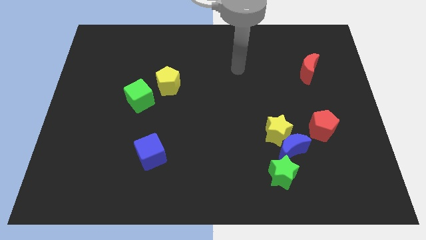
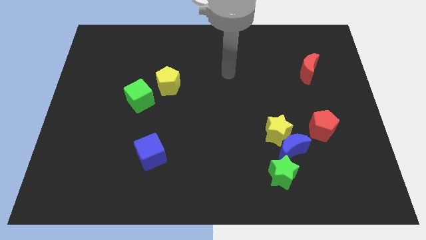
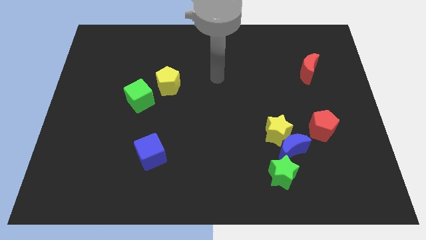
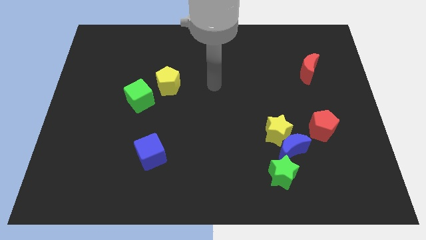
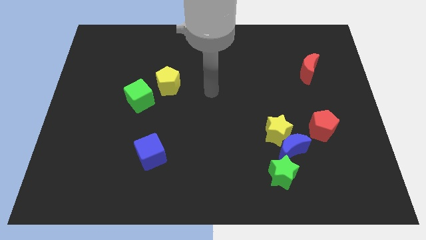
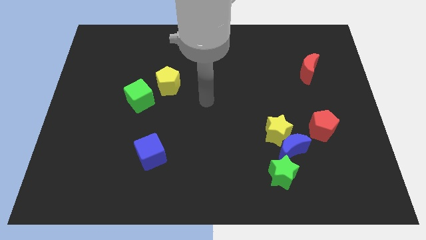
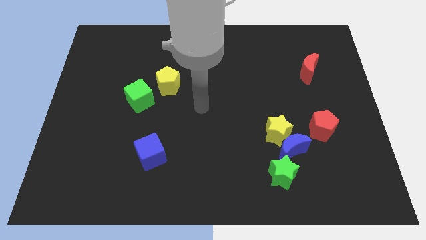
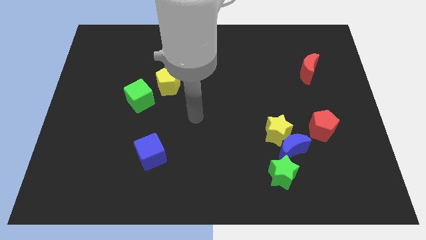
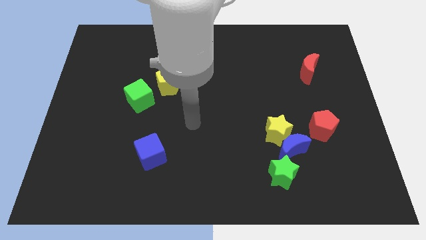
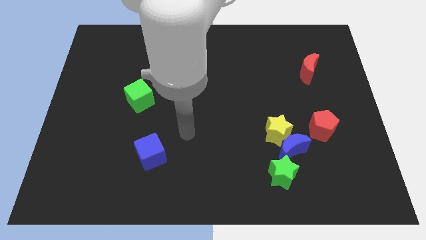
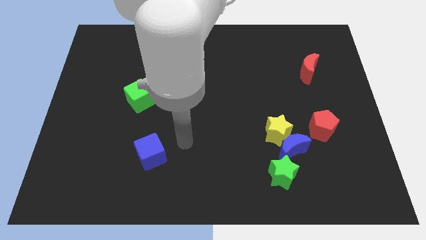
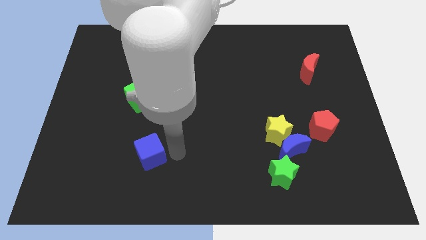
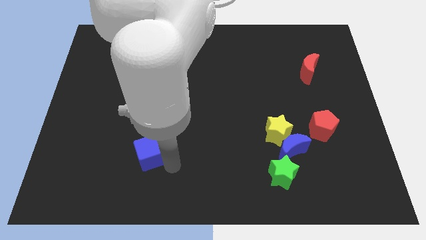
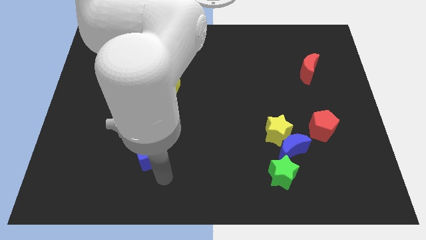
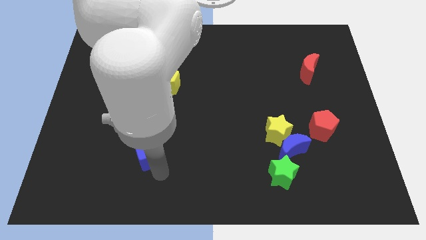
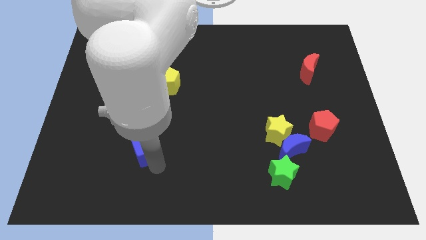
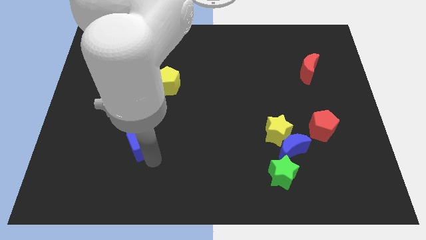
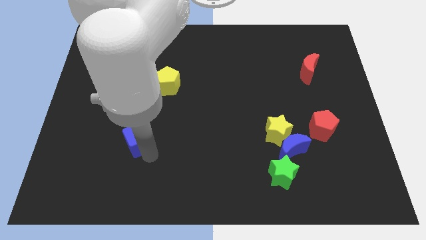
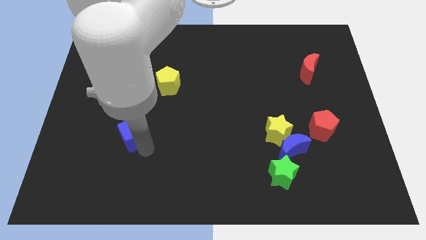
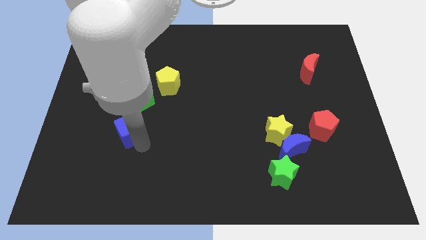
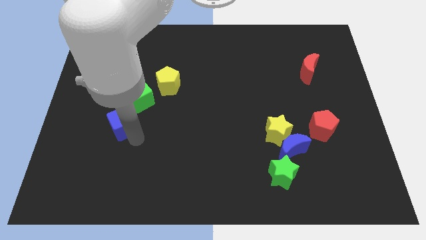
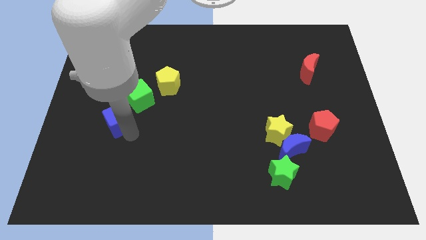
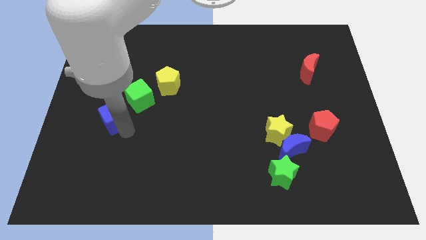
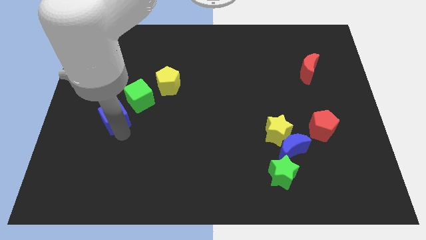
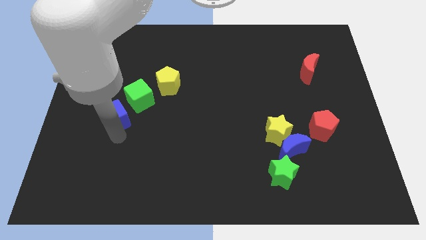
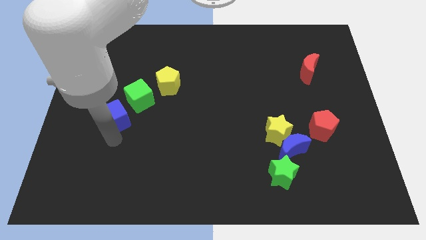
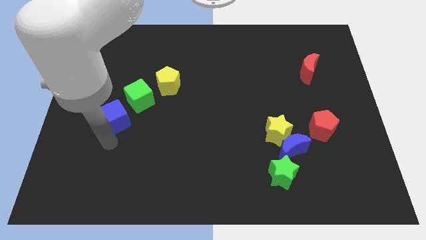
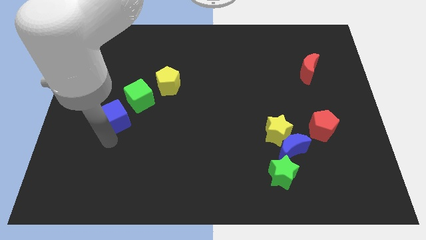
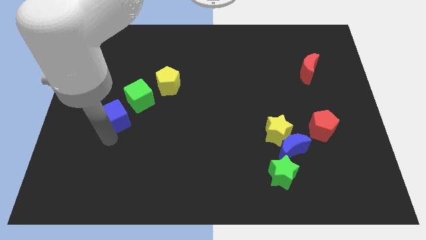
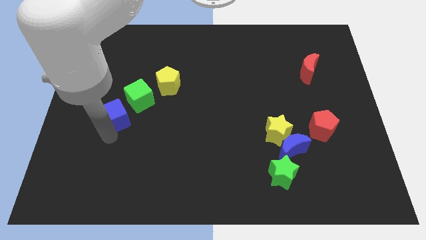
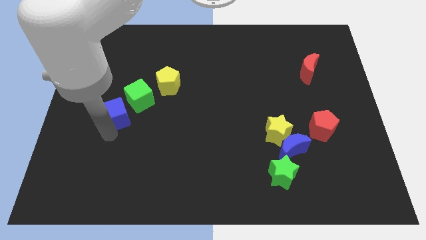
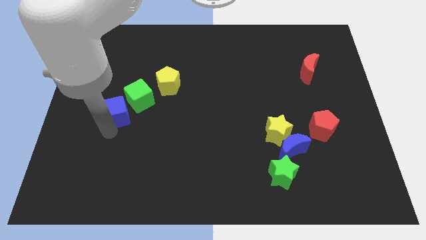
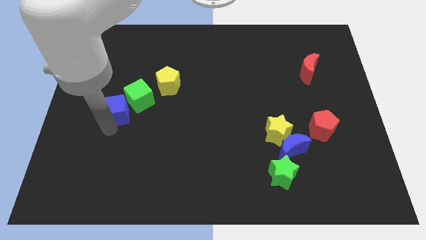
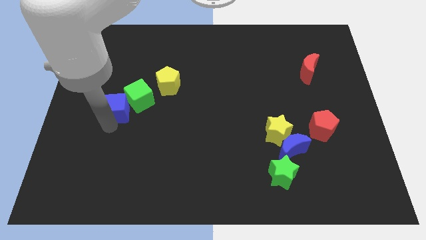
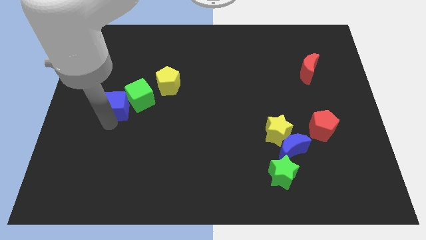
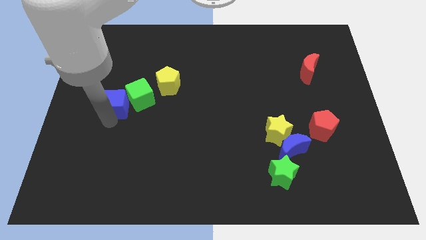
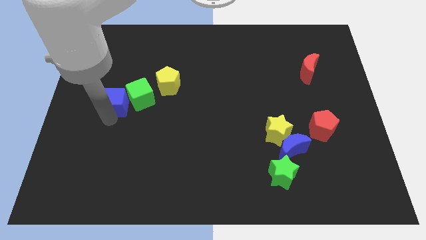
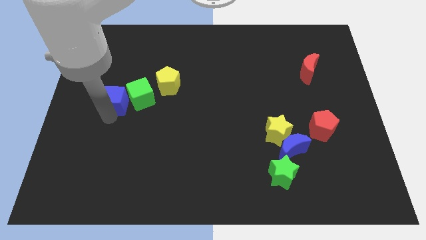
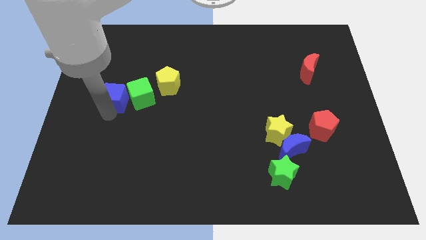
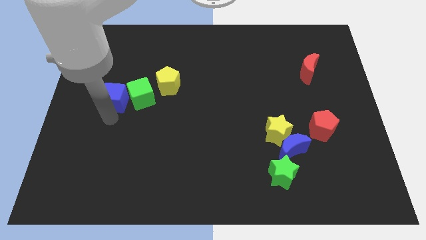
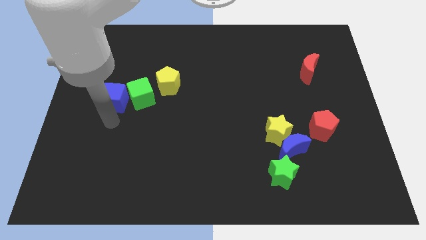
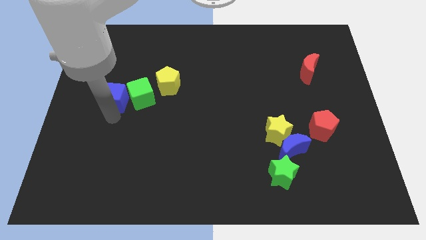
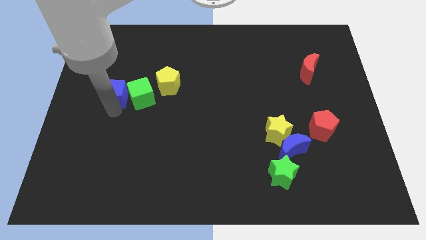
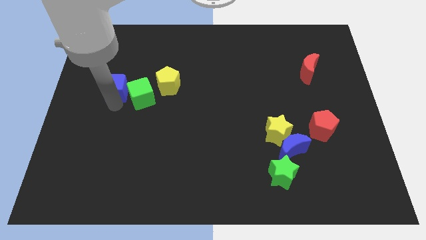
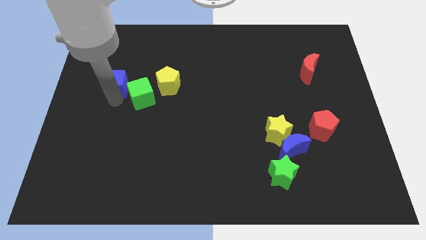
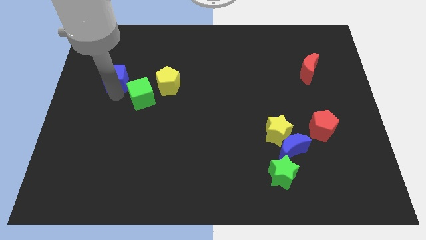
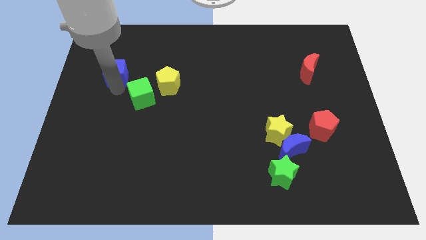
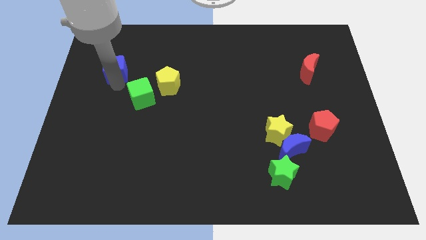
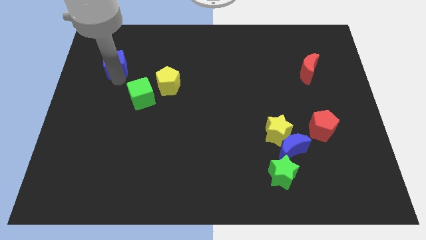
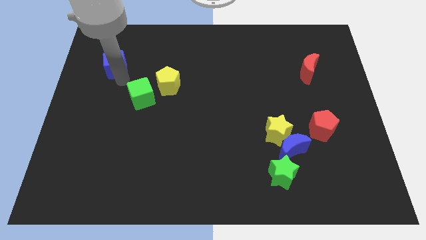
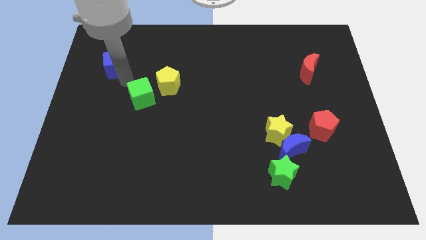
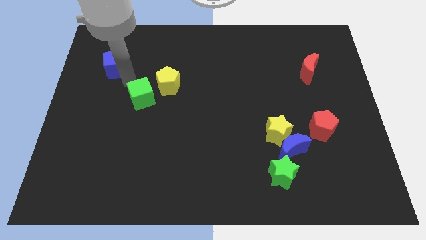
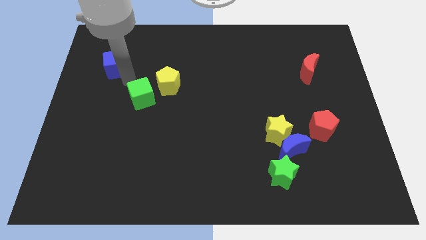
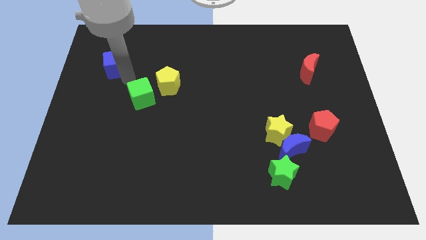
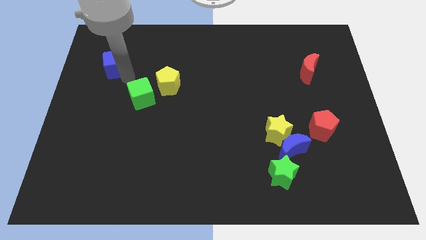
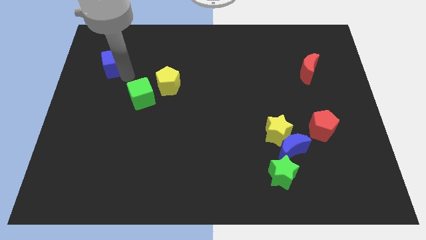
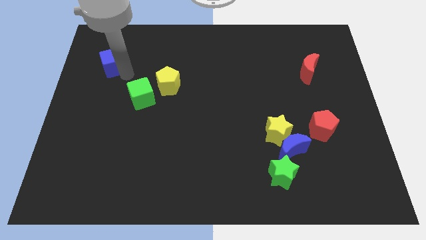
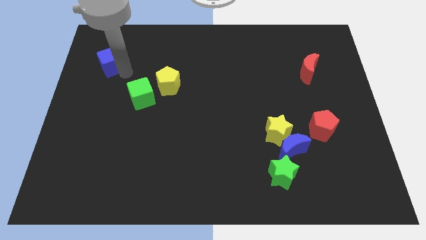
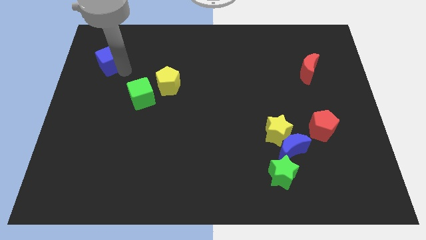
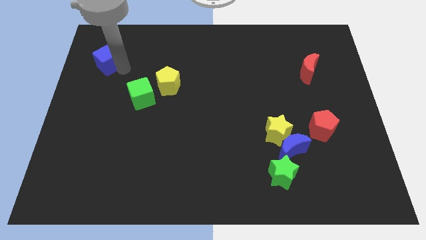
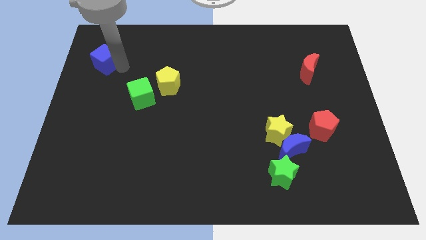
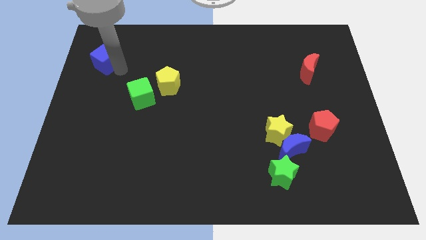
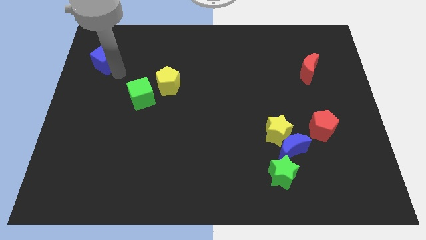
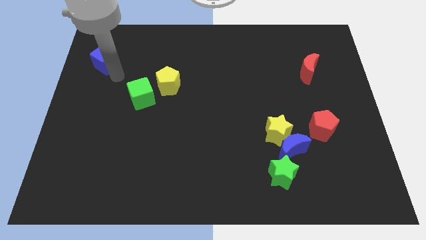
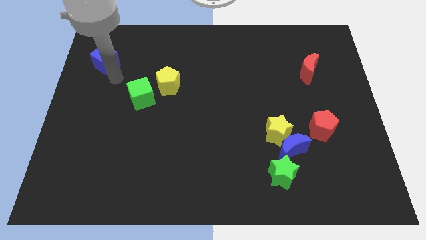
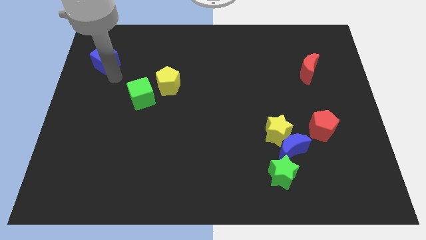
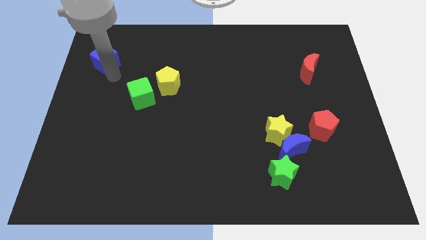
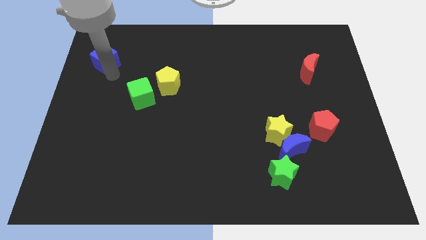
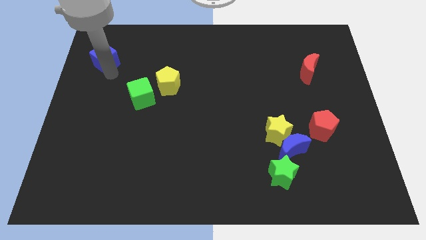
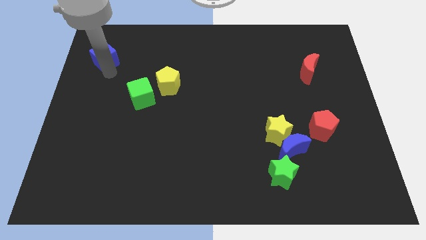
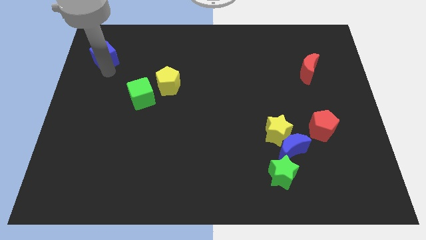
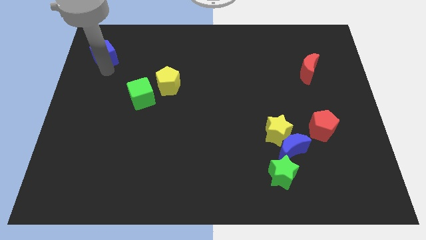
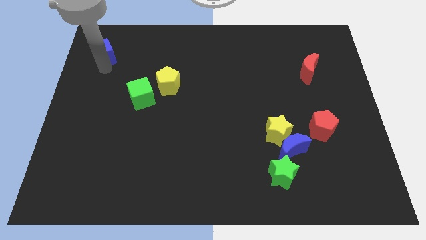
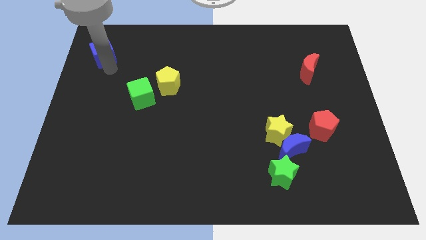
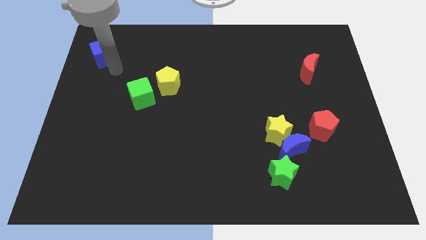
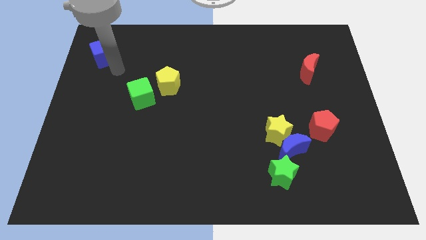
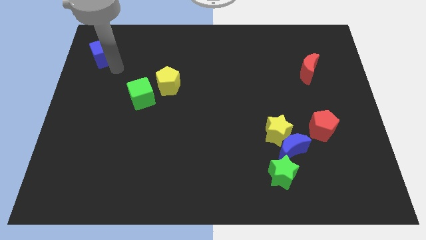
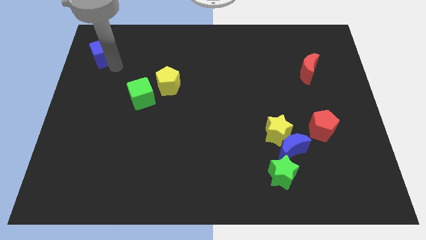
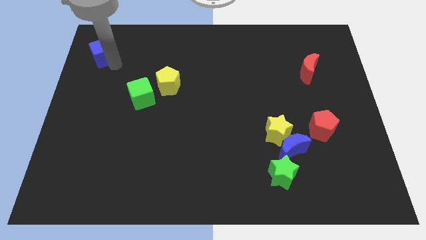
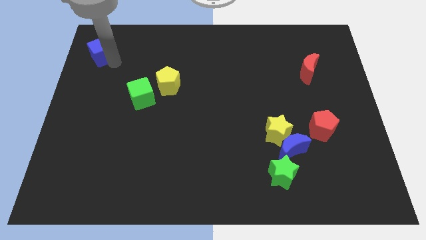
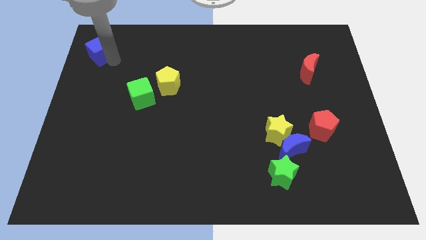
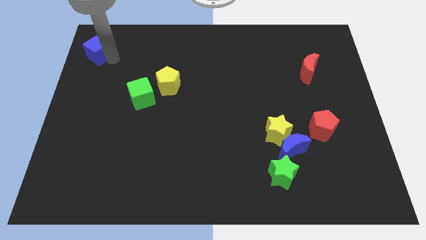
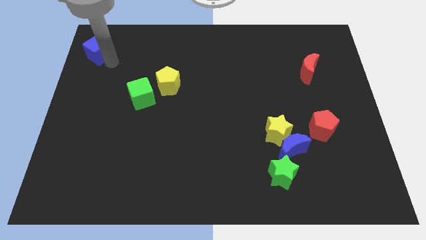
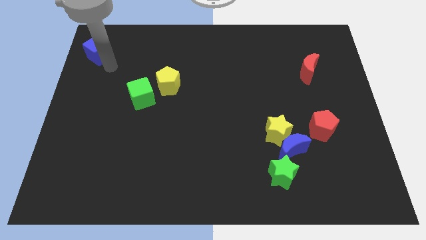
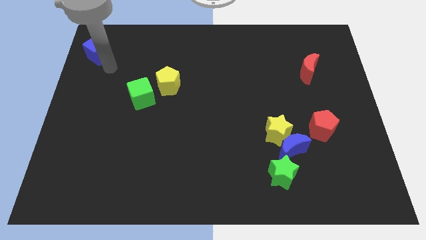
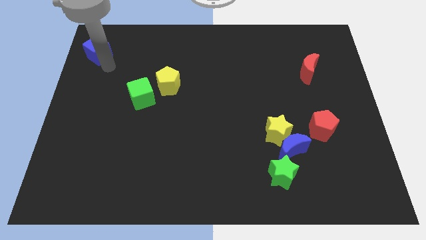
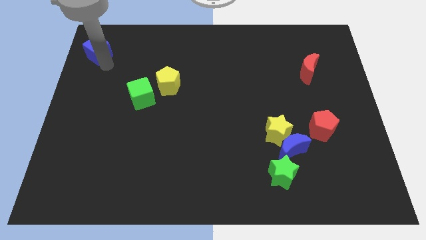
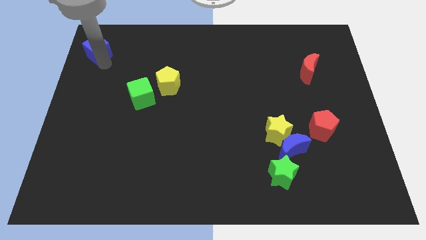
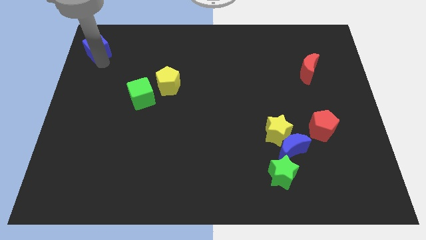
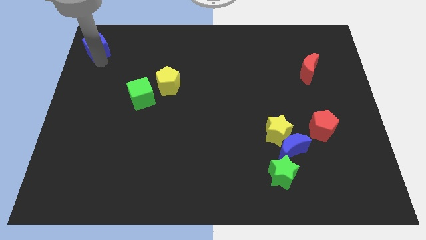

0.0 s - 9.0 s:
push the blue cube to the upper left corner
